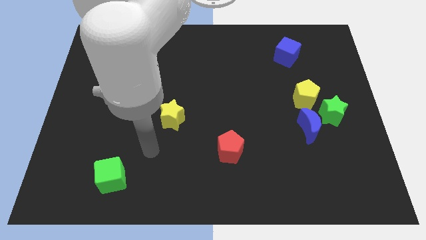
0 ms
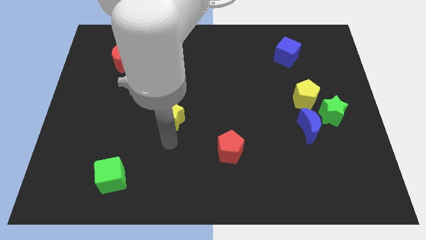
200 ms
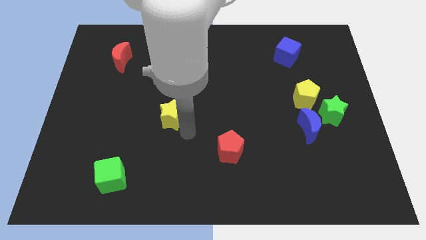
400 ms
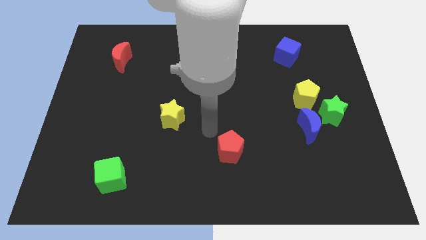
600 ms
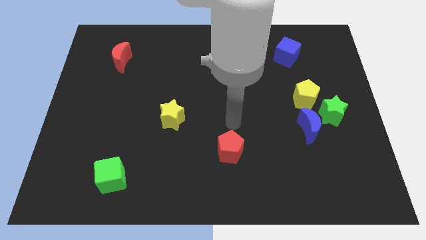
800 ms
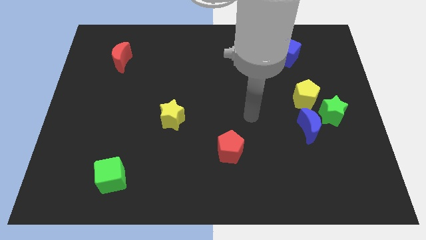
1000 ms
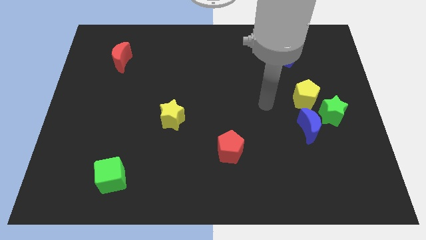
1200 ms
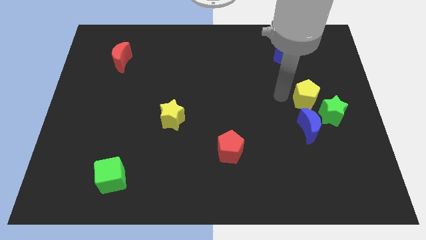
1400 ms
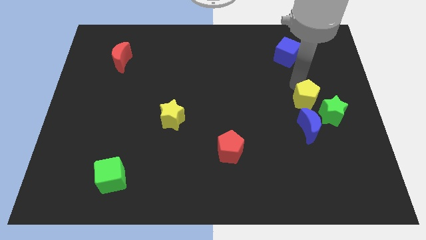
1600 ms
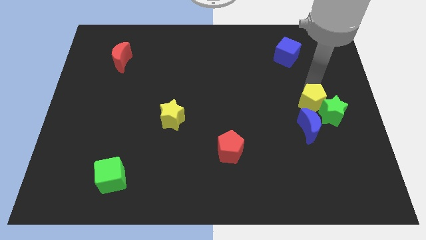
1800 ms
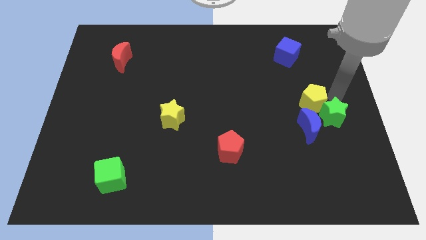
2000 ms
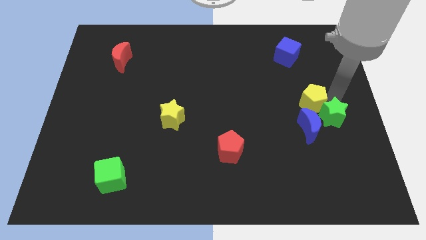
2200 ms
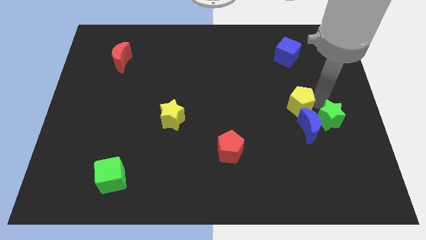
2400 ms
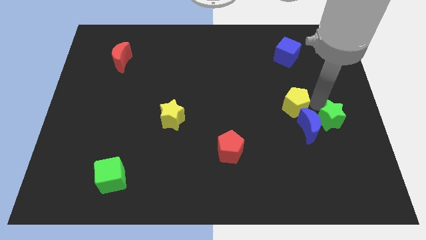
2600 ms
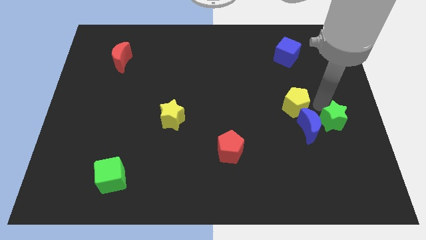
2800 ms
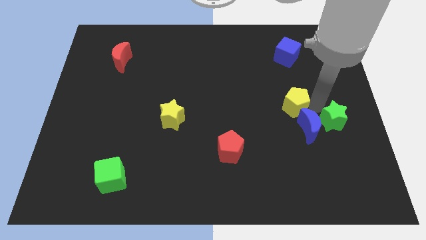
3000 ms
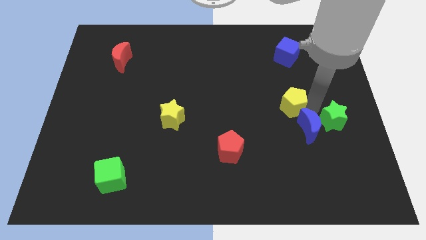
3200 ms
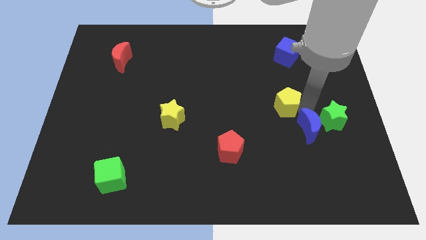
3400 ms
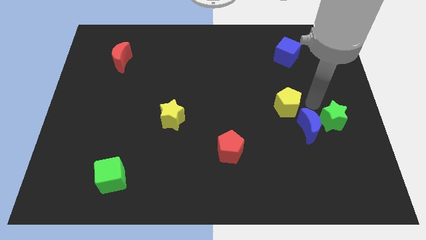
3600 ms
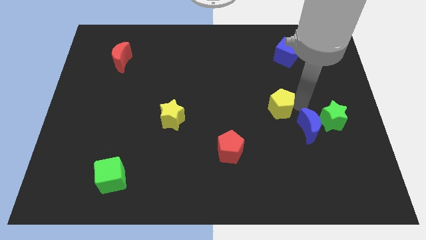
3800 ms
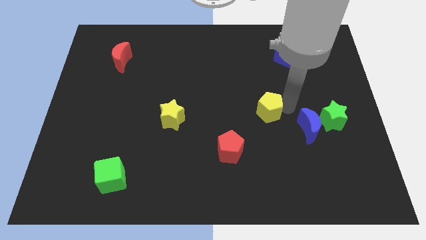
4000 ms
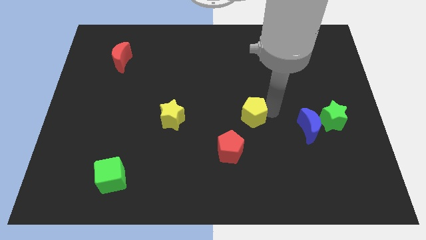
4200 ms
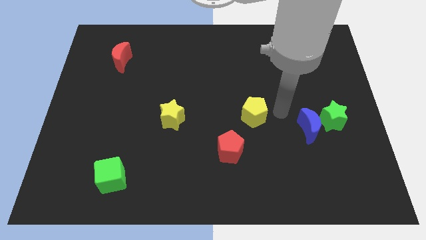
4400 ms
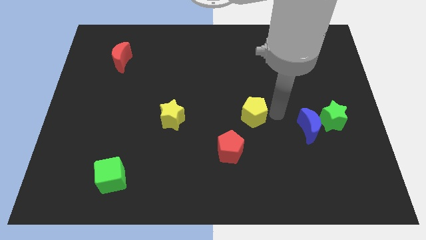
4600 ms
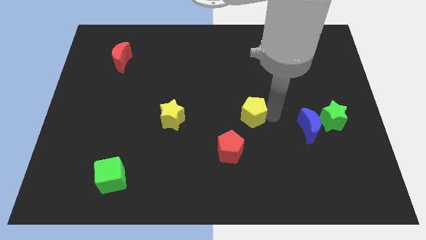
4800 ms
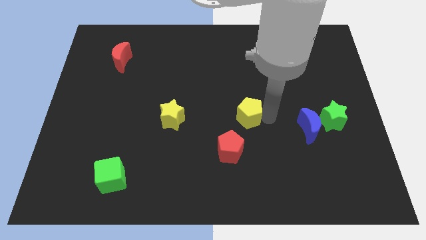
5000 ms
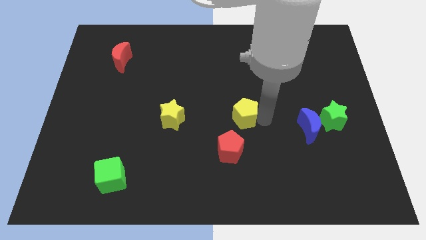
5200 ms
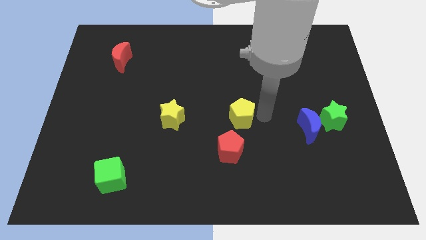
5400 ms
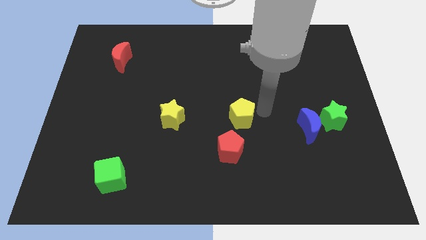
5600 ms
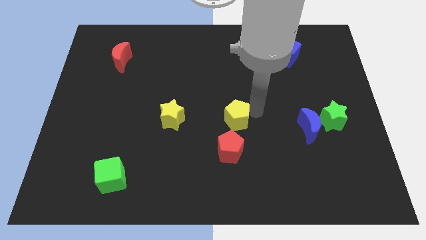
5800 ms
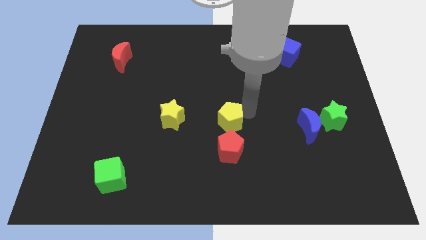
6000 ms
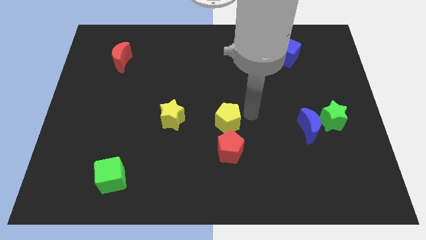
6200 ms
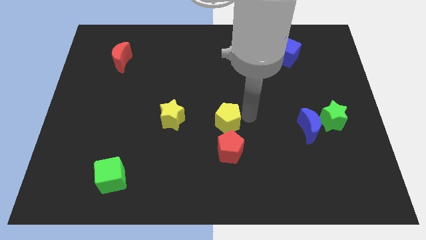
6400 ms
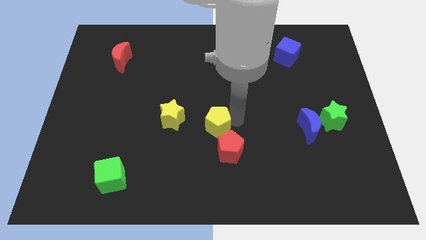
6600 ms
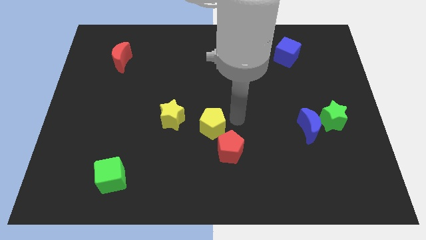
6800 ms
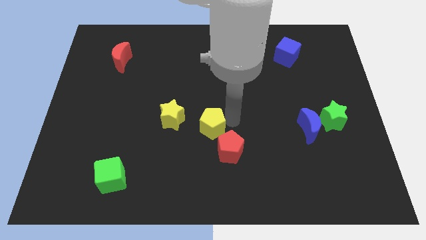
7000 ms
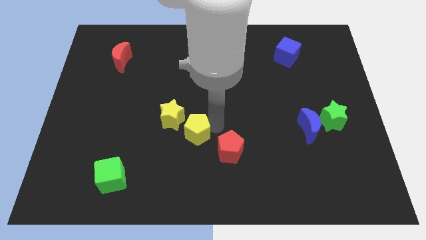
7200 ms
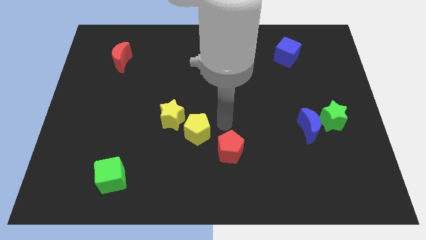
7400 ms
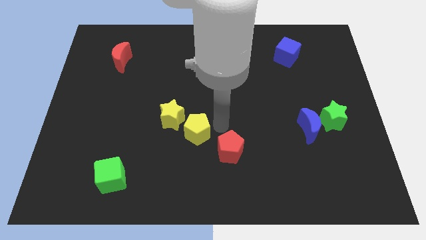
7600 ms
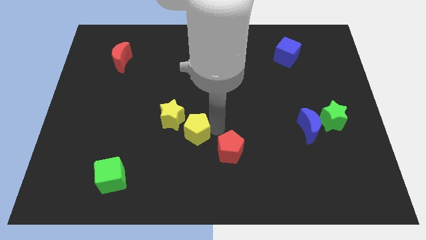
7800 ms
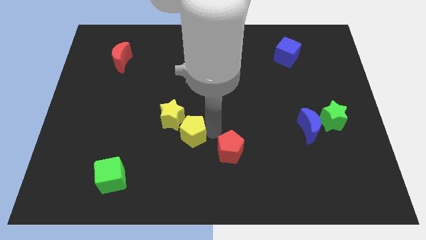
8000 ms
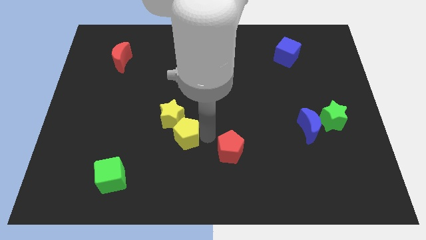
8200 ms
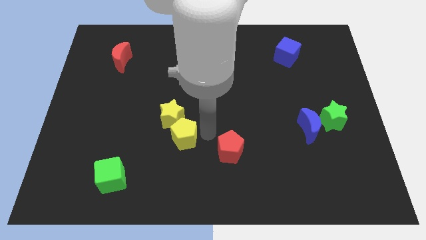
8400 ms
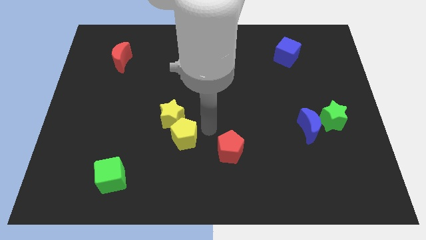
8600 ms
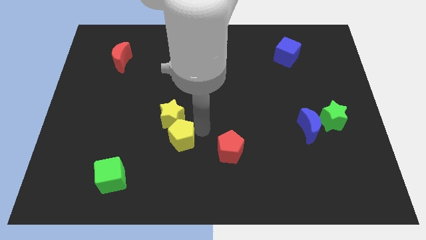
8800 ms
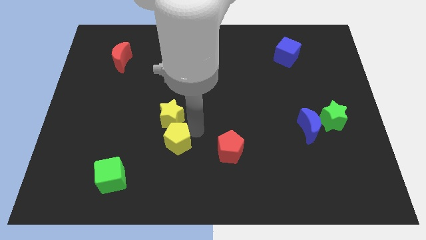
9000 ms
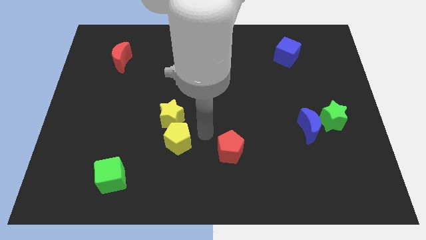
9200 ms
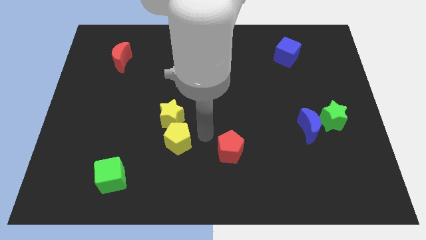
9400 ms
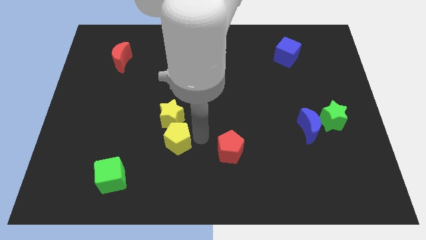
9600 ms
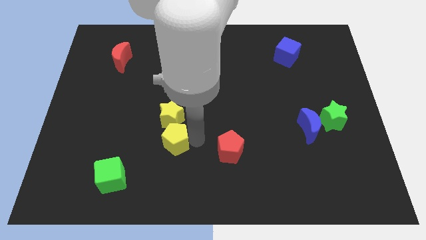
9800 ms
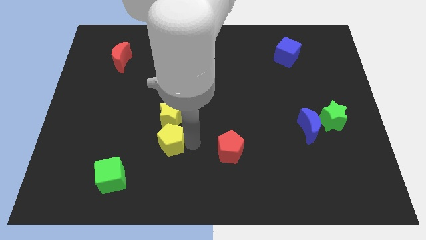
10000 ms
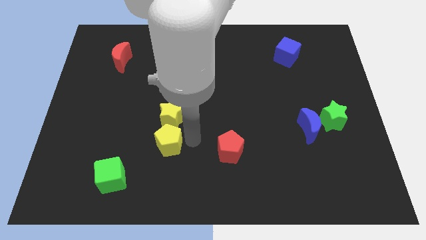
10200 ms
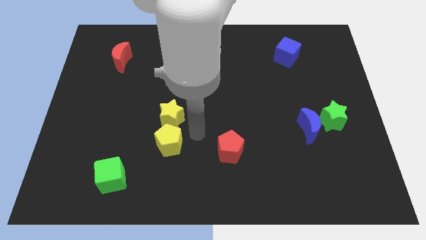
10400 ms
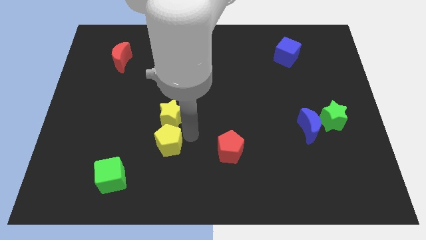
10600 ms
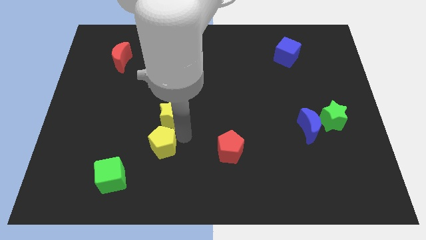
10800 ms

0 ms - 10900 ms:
slide the yellow pentagon diagonally up and to the right of the green cube

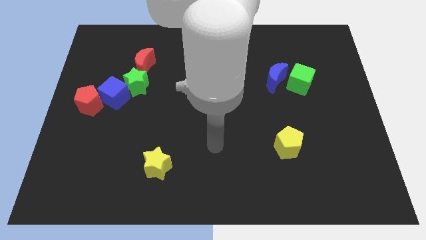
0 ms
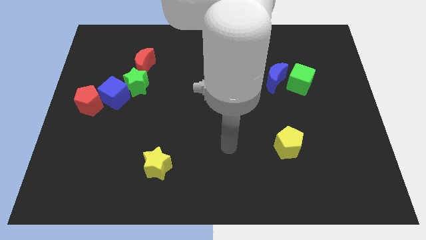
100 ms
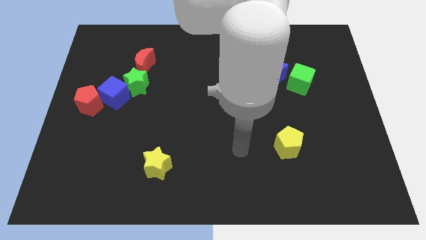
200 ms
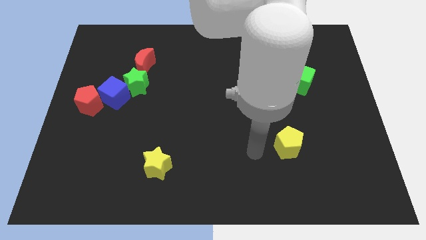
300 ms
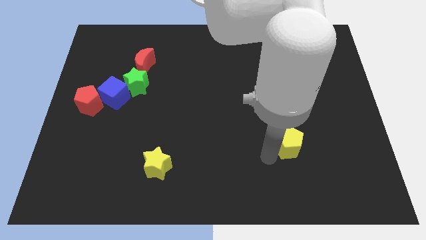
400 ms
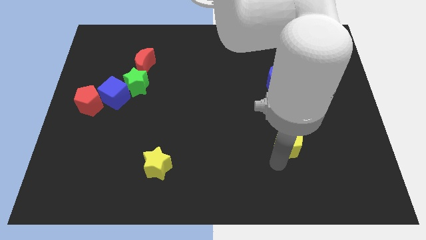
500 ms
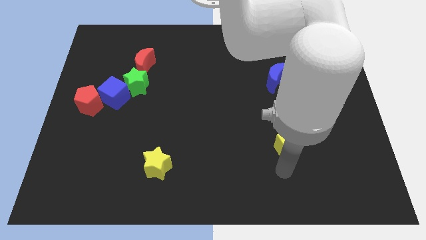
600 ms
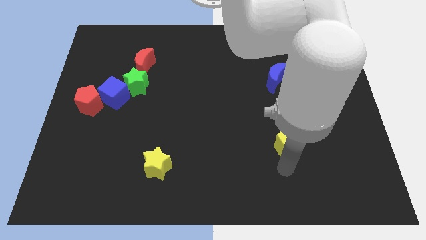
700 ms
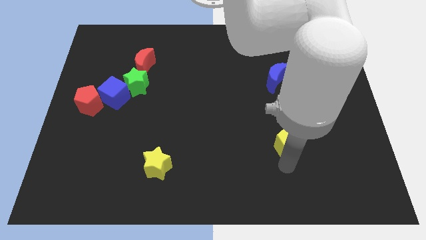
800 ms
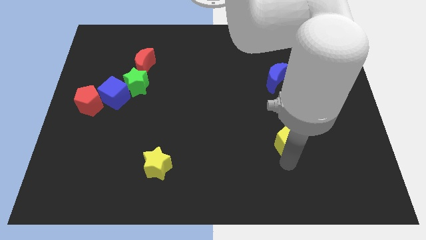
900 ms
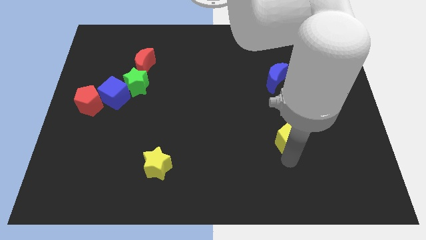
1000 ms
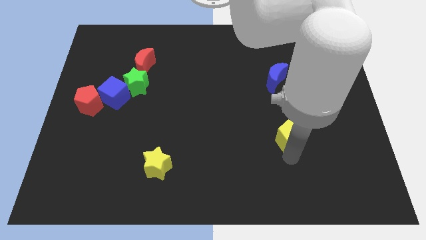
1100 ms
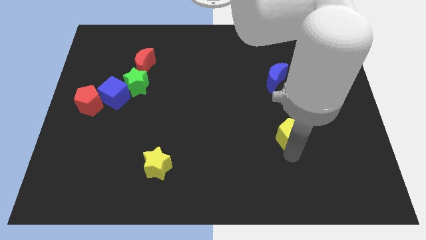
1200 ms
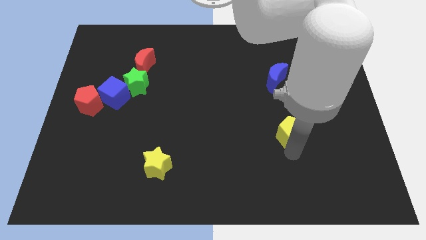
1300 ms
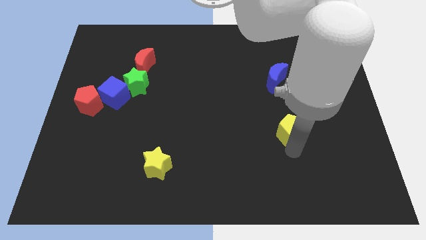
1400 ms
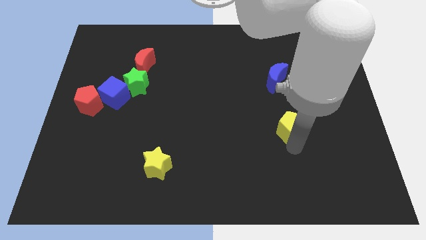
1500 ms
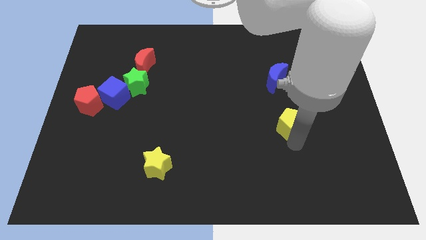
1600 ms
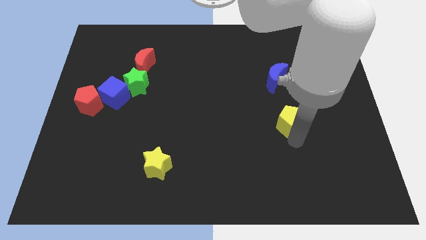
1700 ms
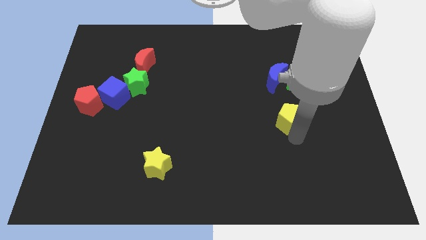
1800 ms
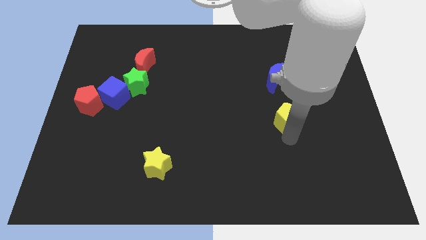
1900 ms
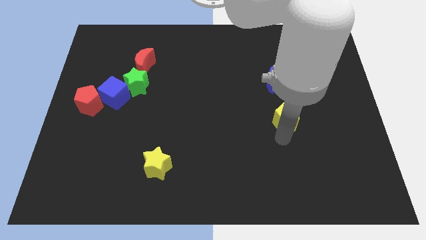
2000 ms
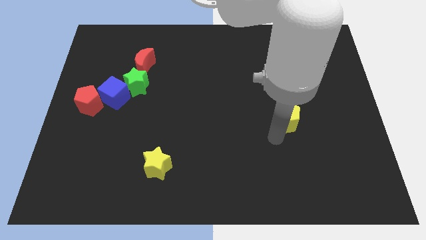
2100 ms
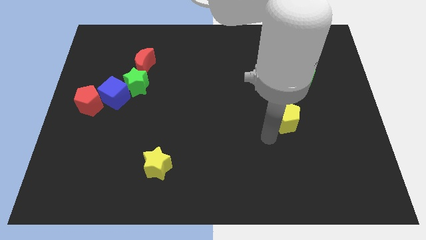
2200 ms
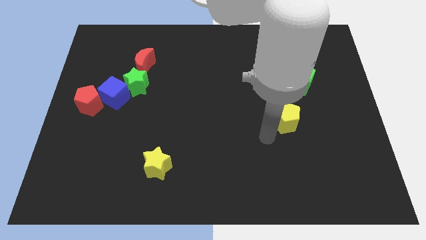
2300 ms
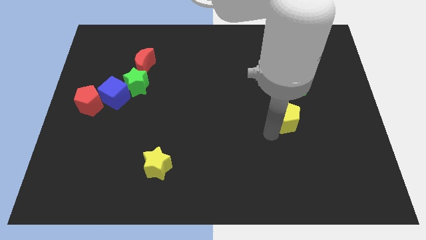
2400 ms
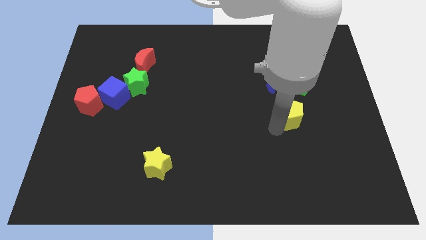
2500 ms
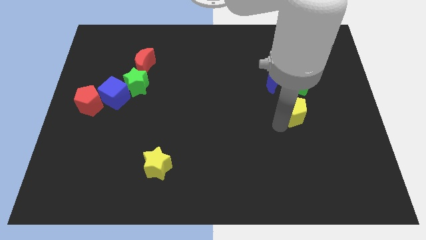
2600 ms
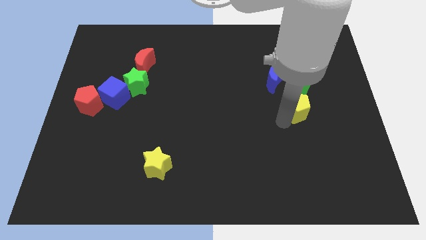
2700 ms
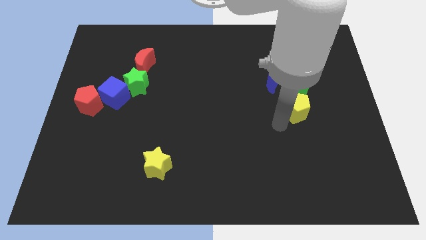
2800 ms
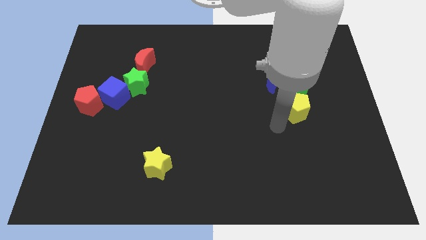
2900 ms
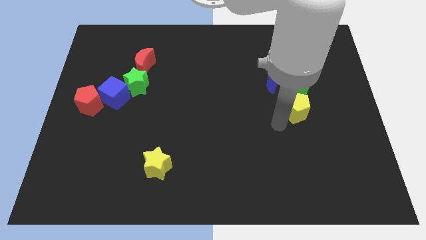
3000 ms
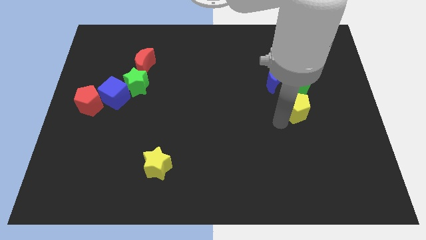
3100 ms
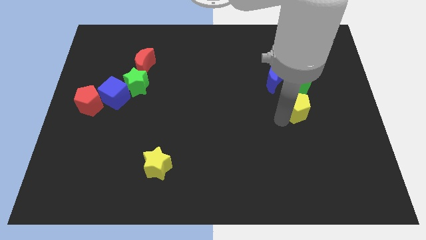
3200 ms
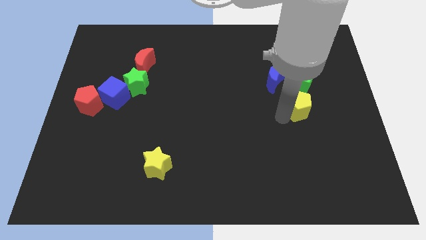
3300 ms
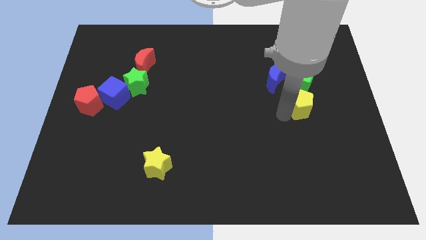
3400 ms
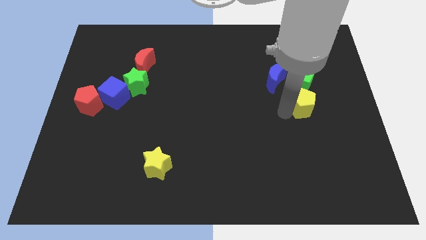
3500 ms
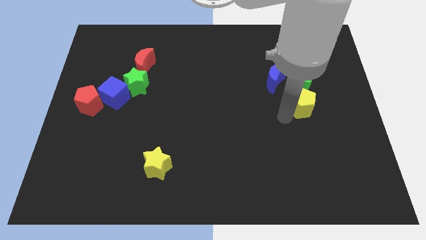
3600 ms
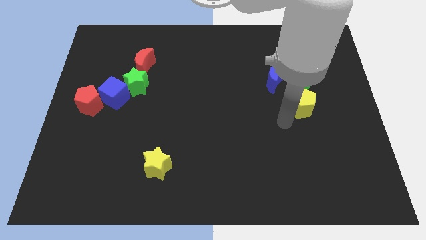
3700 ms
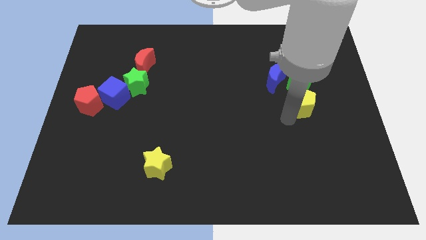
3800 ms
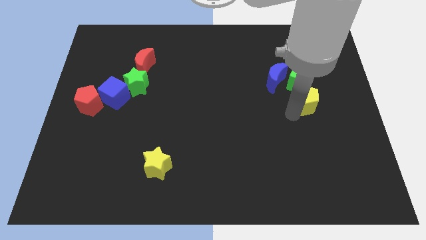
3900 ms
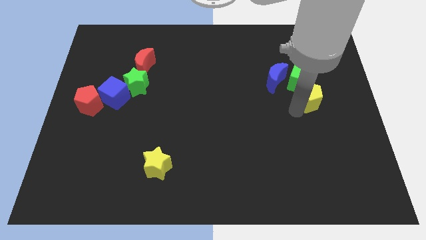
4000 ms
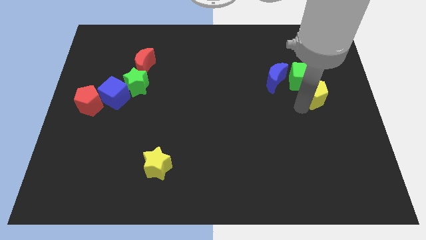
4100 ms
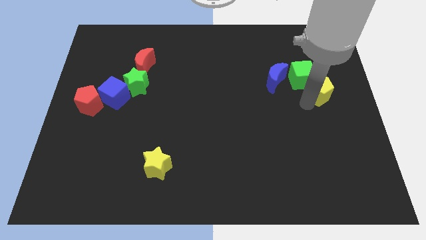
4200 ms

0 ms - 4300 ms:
push the yellow pentagon right of the blue moon
